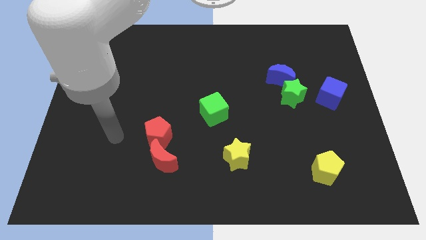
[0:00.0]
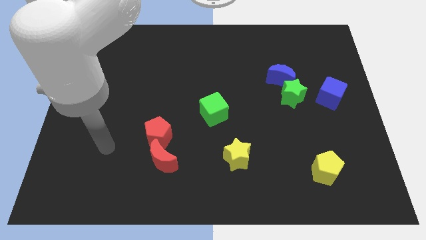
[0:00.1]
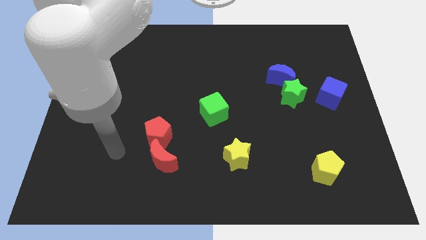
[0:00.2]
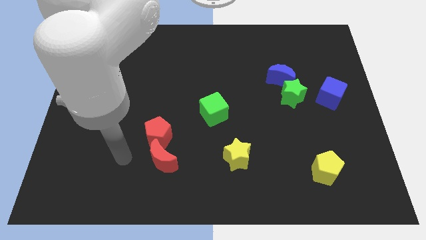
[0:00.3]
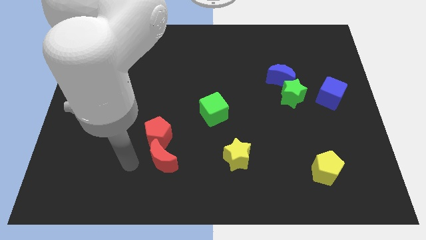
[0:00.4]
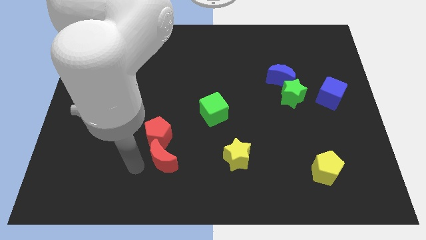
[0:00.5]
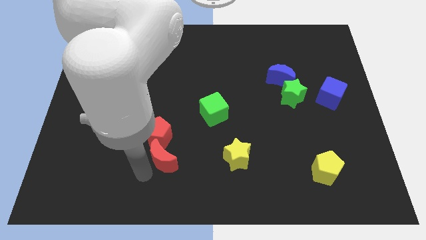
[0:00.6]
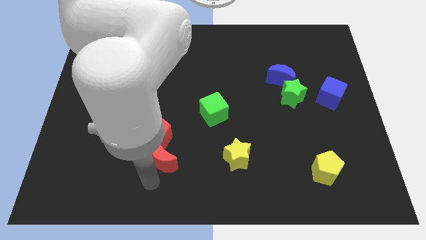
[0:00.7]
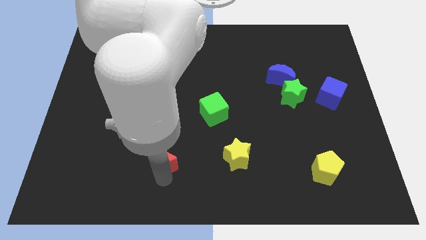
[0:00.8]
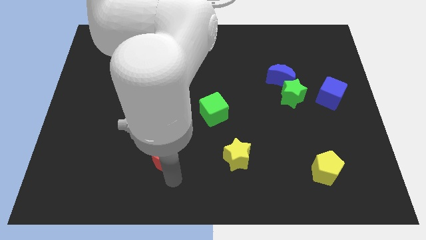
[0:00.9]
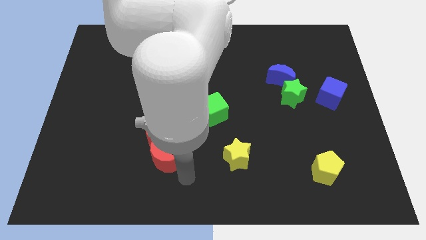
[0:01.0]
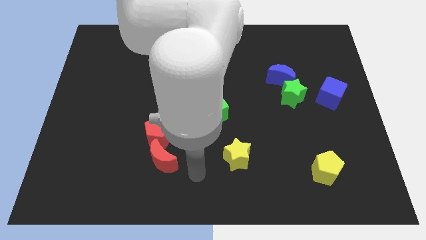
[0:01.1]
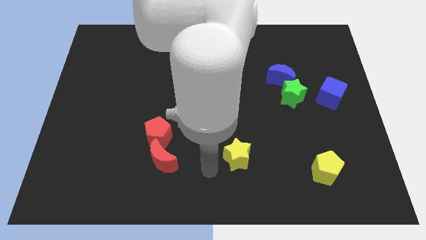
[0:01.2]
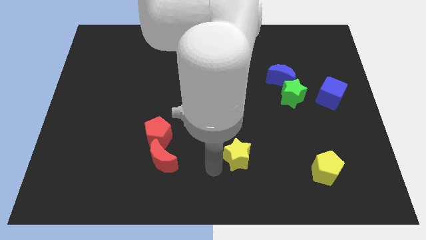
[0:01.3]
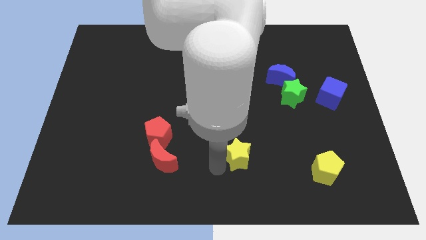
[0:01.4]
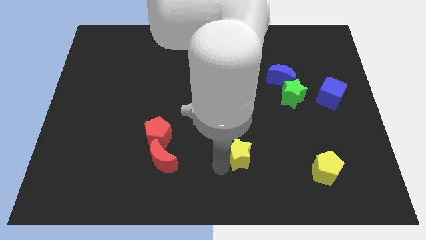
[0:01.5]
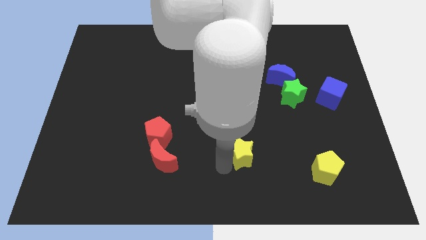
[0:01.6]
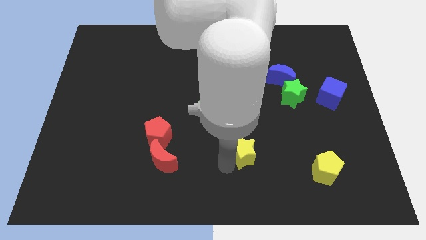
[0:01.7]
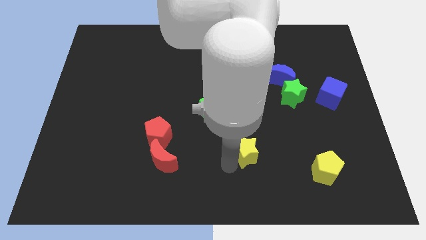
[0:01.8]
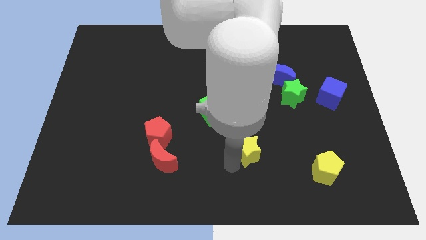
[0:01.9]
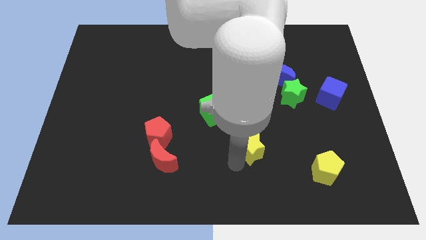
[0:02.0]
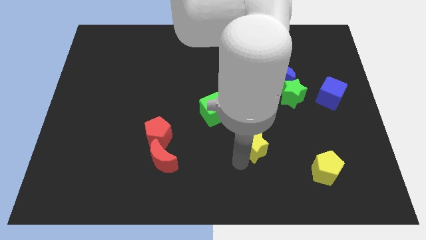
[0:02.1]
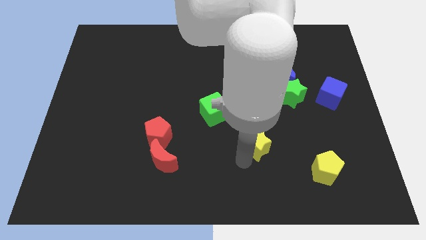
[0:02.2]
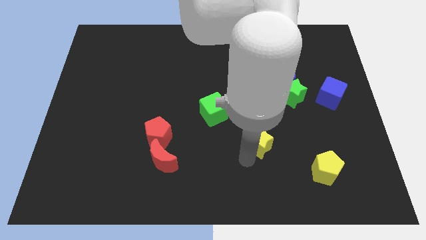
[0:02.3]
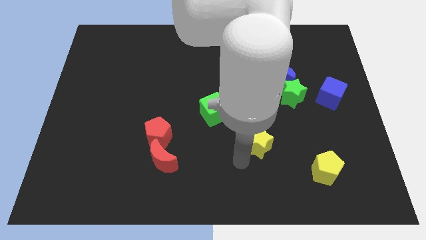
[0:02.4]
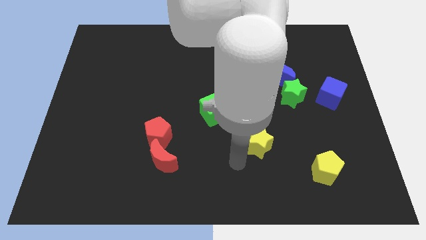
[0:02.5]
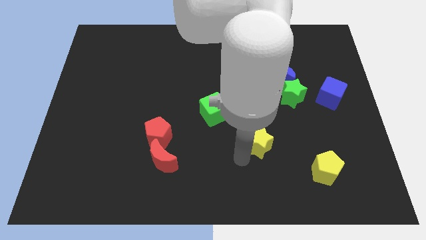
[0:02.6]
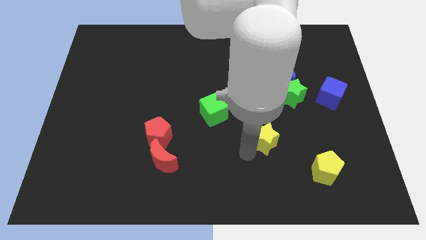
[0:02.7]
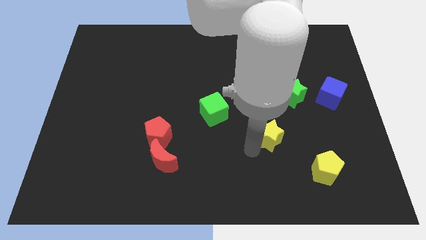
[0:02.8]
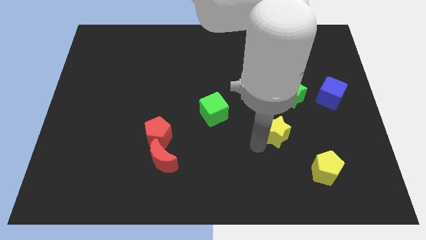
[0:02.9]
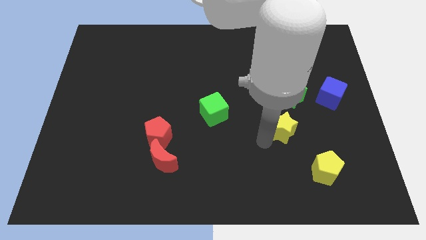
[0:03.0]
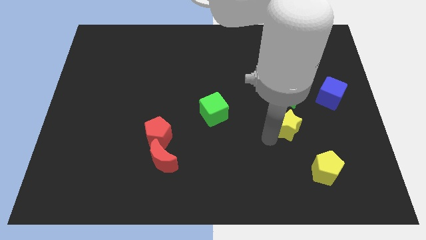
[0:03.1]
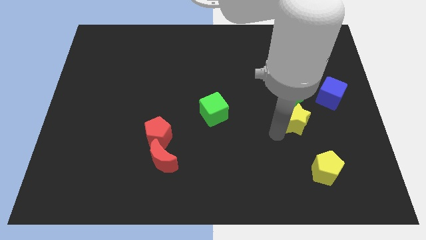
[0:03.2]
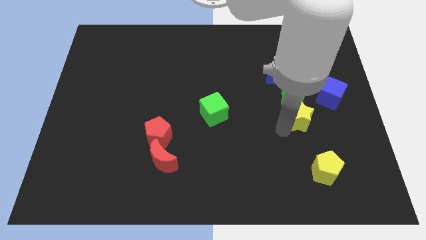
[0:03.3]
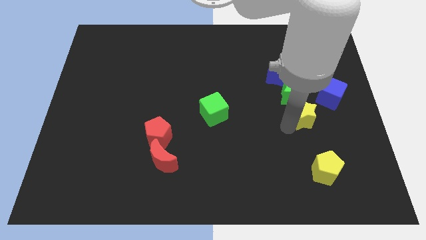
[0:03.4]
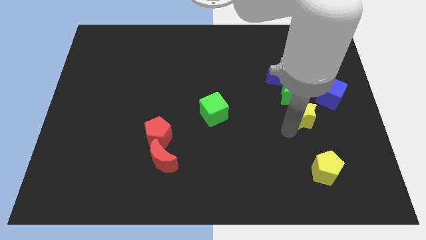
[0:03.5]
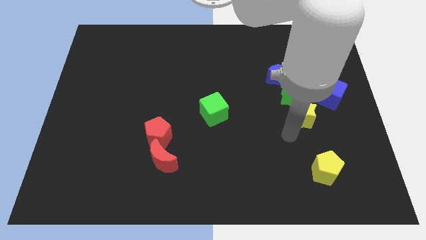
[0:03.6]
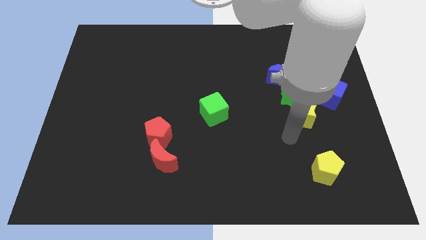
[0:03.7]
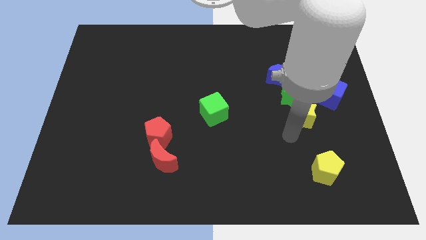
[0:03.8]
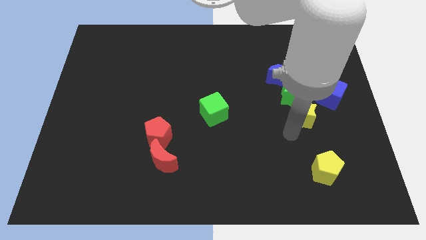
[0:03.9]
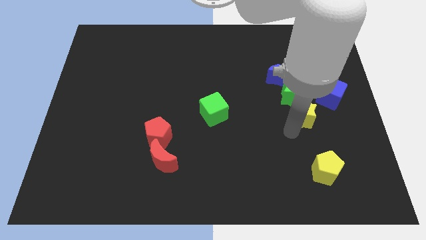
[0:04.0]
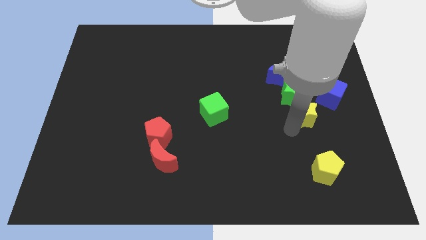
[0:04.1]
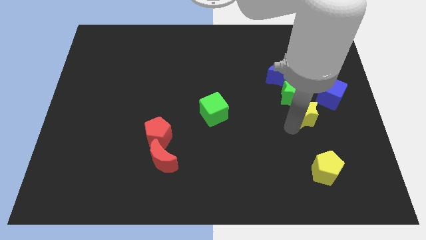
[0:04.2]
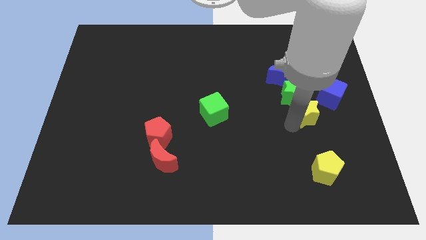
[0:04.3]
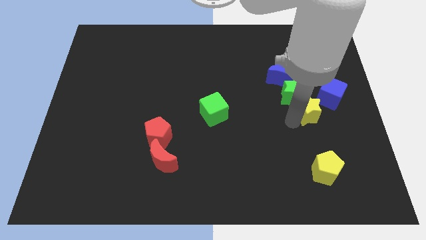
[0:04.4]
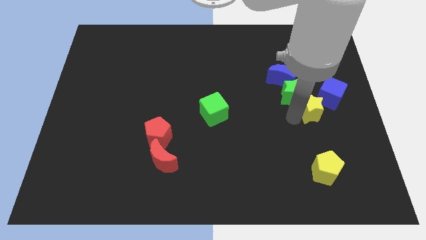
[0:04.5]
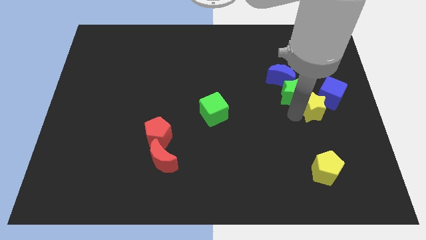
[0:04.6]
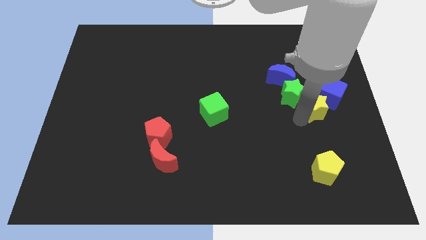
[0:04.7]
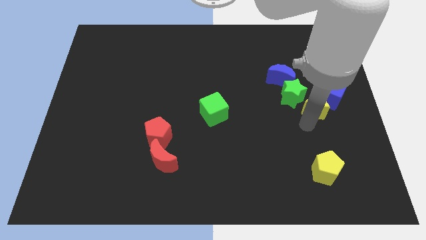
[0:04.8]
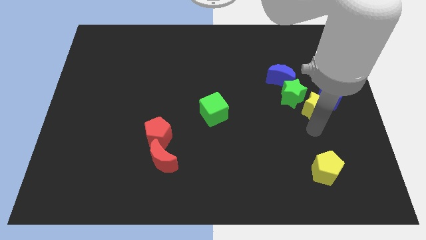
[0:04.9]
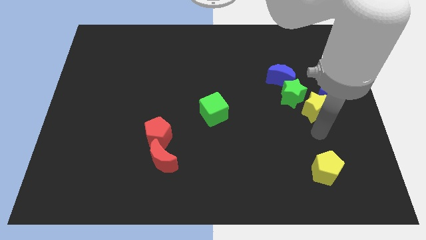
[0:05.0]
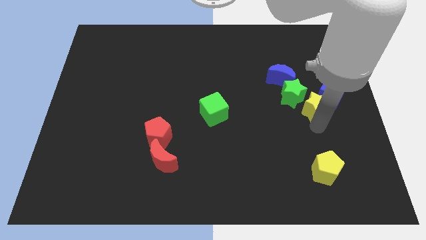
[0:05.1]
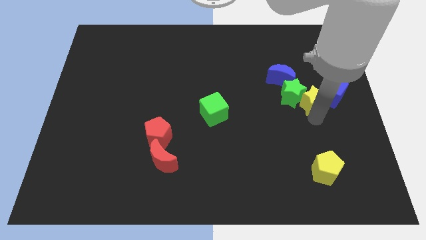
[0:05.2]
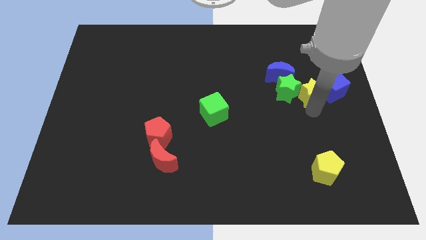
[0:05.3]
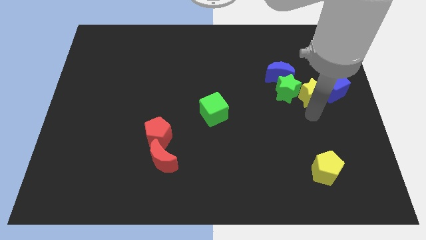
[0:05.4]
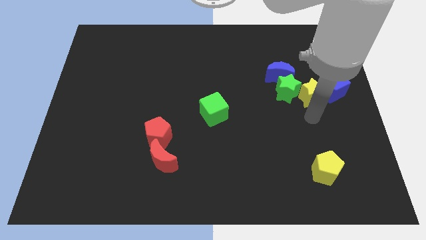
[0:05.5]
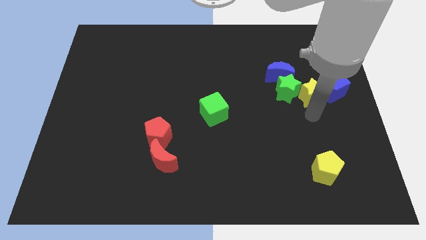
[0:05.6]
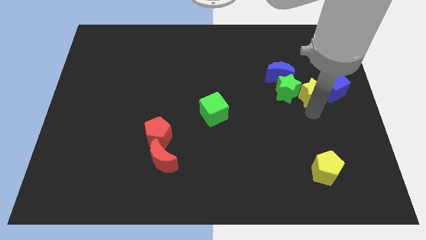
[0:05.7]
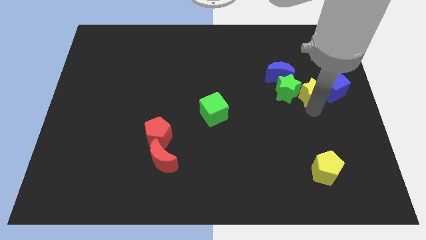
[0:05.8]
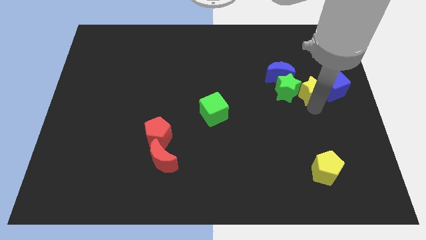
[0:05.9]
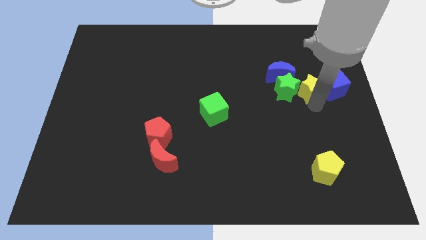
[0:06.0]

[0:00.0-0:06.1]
slide the yellow star to the top left of the blue cube

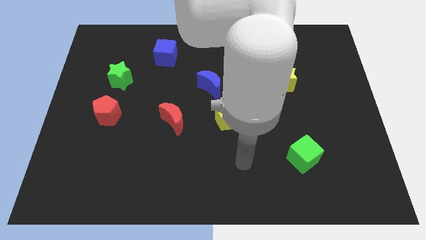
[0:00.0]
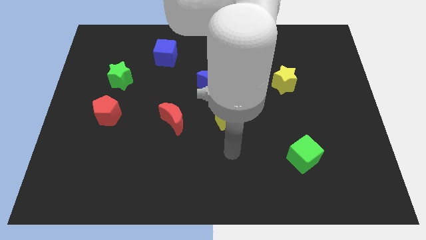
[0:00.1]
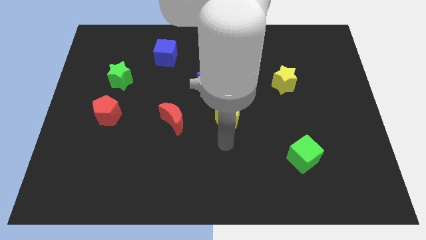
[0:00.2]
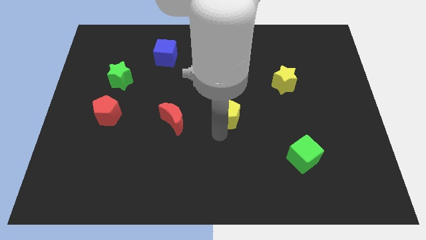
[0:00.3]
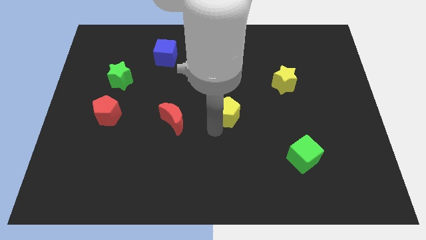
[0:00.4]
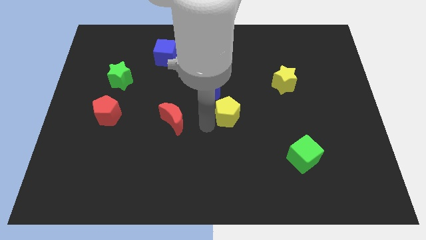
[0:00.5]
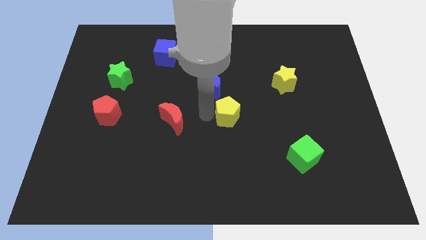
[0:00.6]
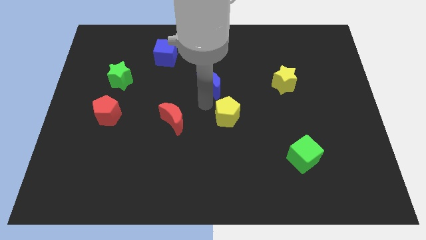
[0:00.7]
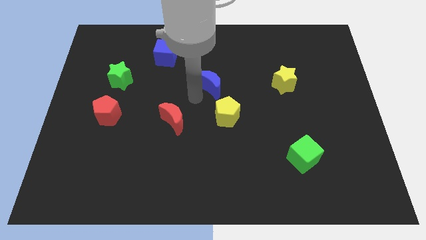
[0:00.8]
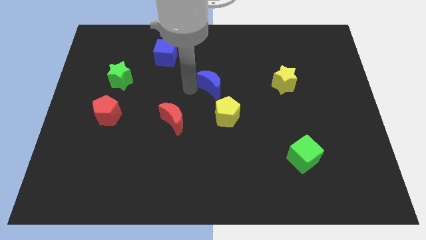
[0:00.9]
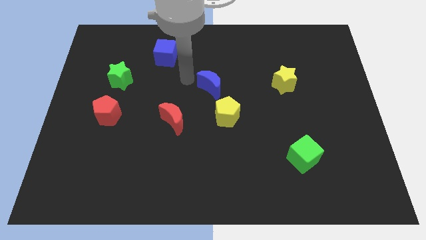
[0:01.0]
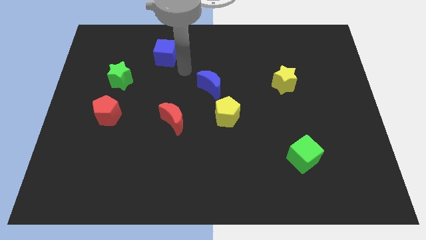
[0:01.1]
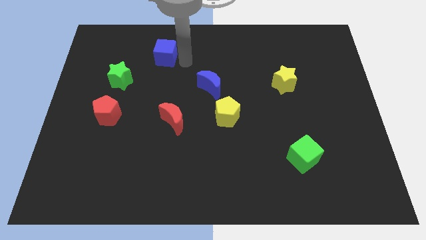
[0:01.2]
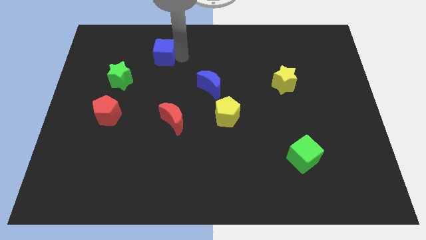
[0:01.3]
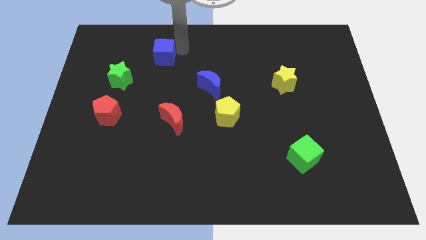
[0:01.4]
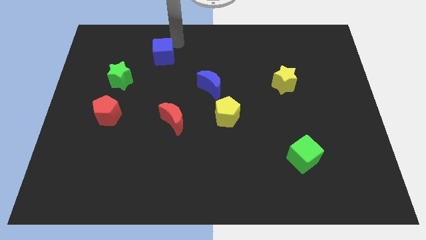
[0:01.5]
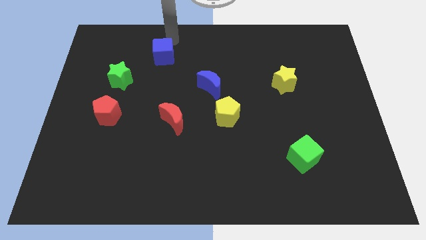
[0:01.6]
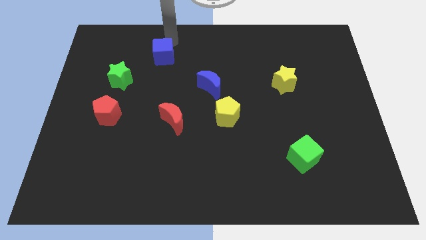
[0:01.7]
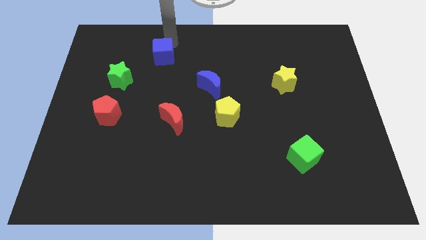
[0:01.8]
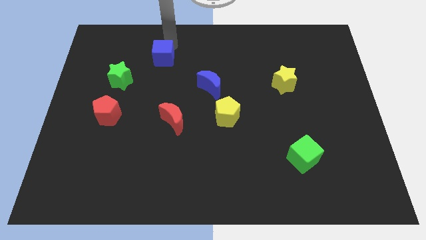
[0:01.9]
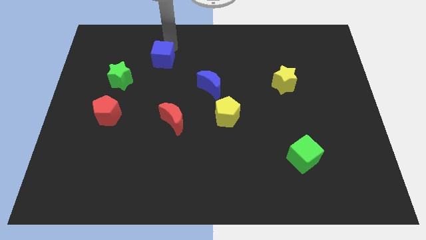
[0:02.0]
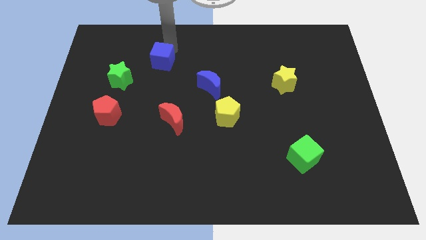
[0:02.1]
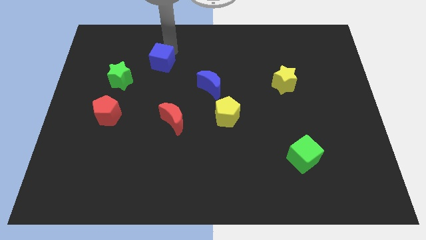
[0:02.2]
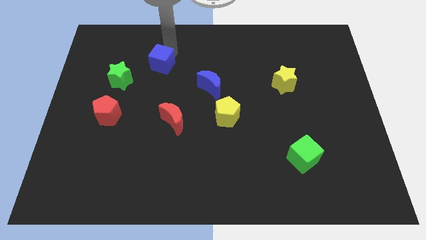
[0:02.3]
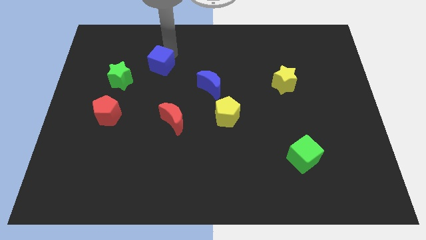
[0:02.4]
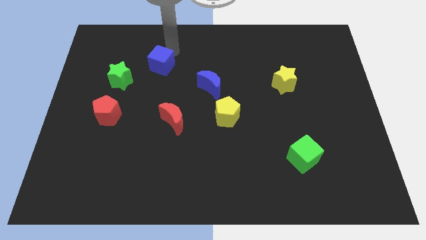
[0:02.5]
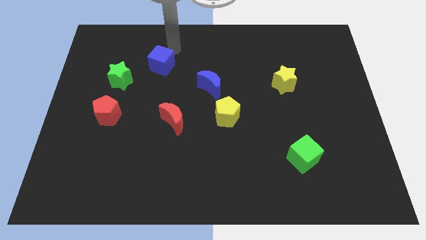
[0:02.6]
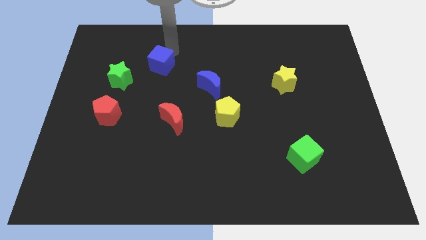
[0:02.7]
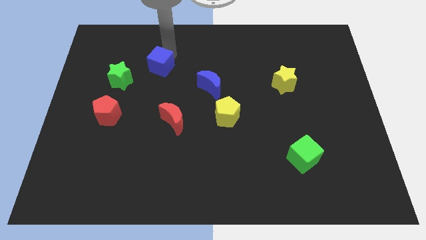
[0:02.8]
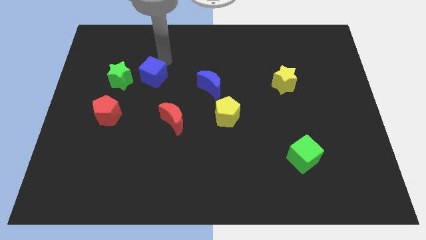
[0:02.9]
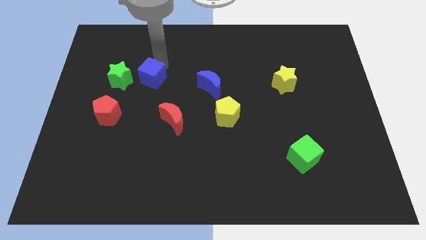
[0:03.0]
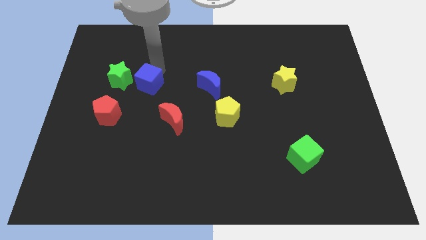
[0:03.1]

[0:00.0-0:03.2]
push the blue cube to the bottom right of the green star
